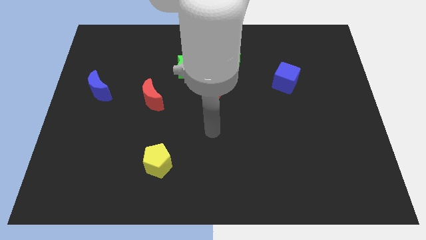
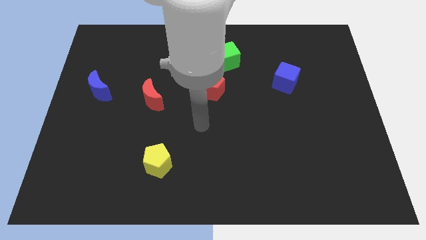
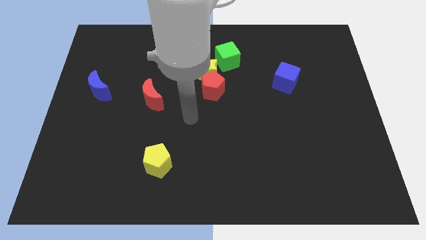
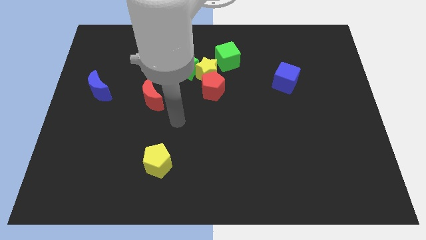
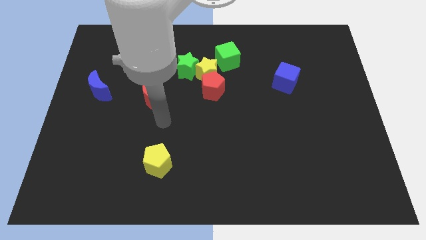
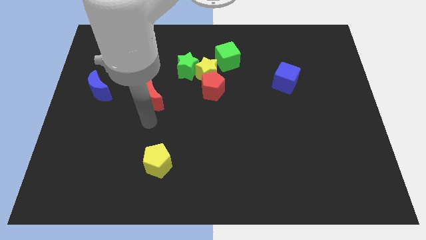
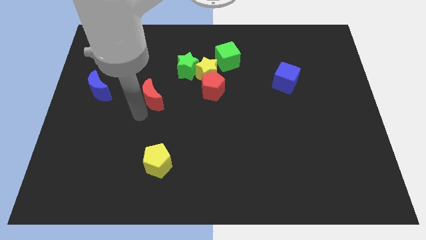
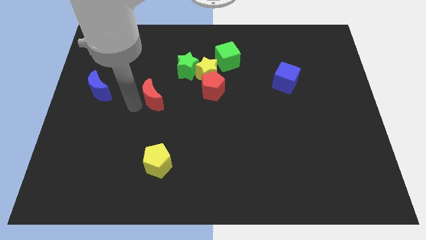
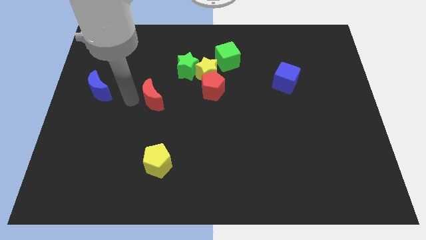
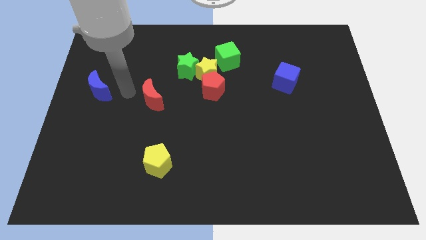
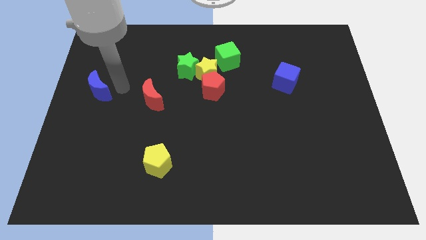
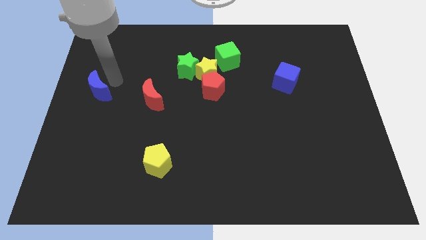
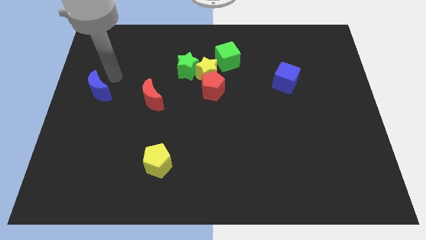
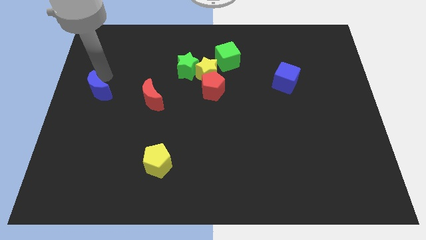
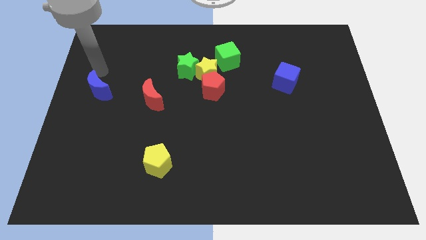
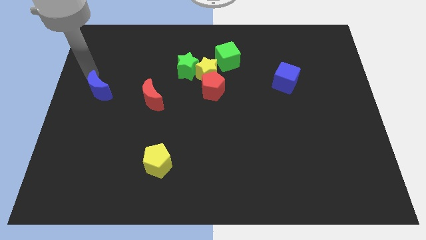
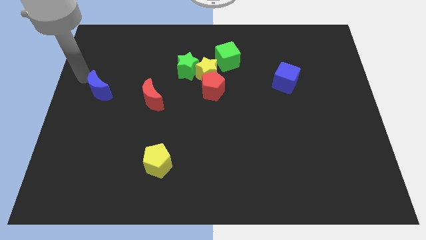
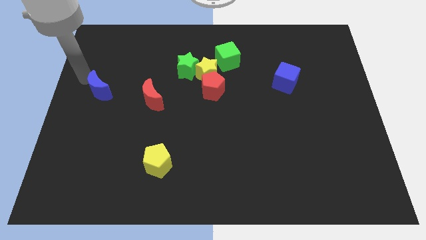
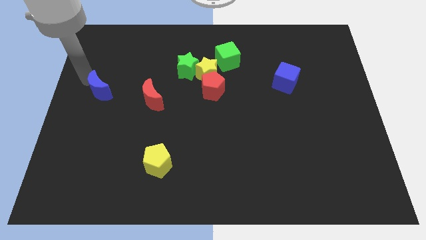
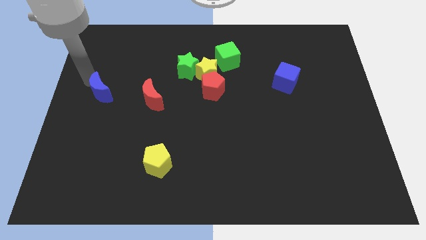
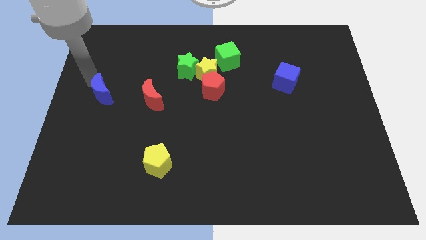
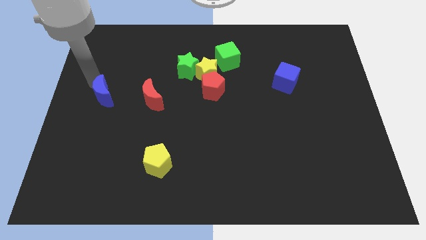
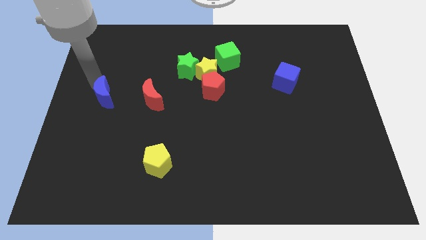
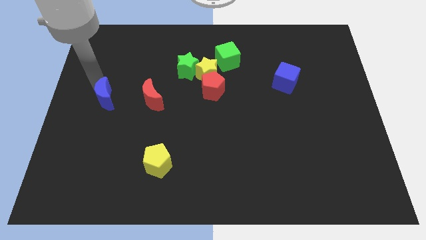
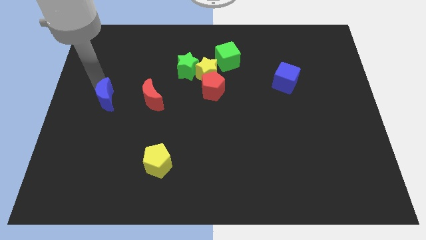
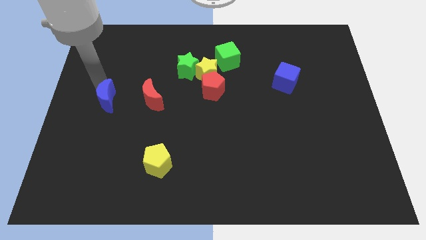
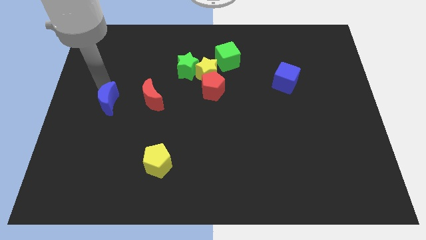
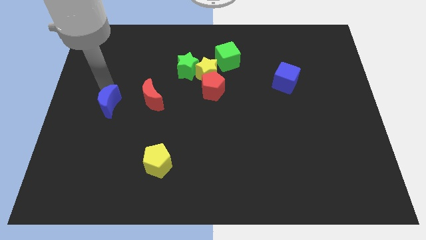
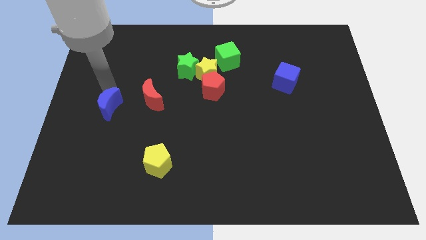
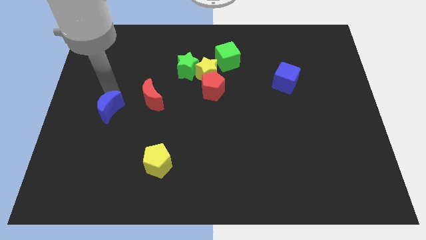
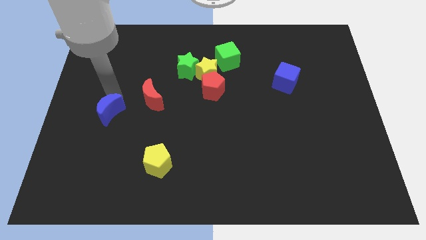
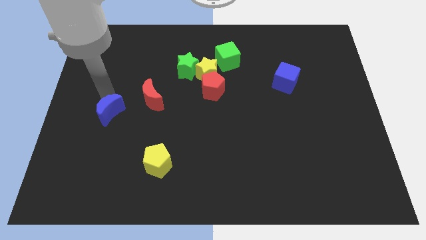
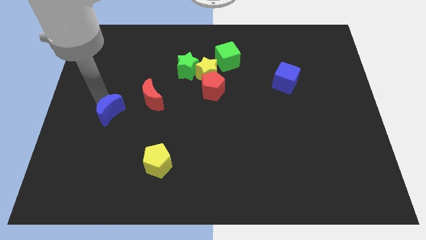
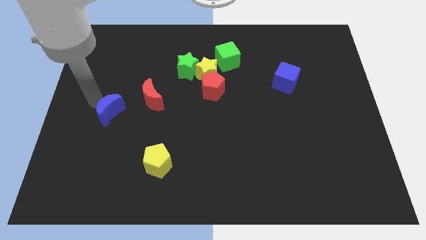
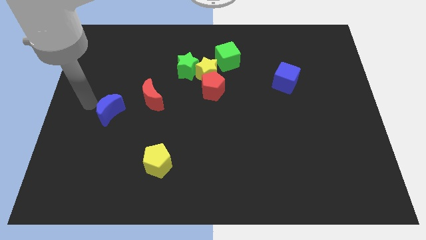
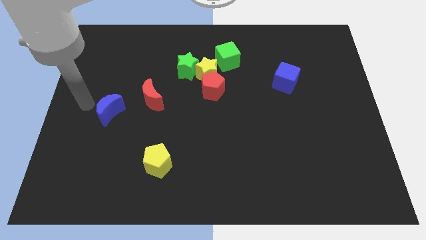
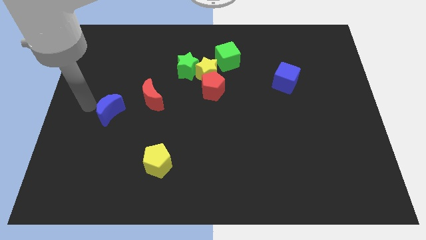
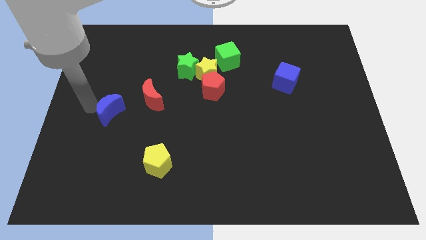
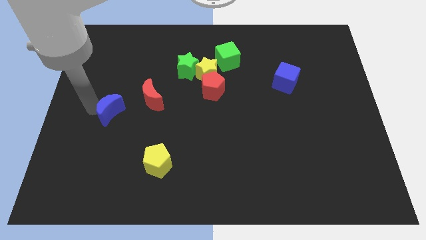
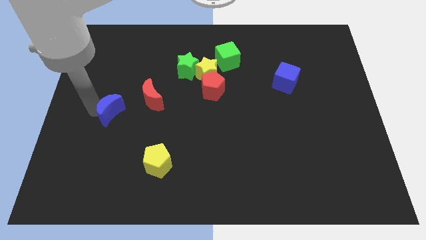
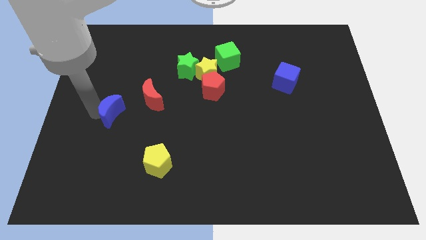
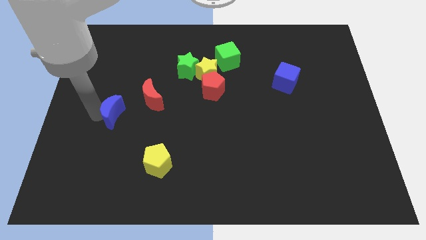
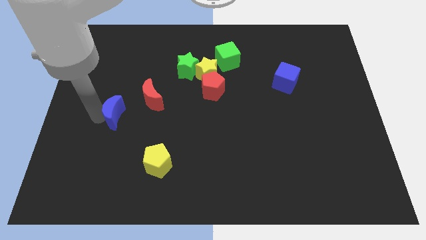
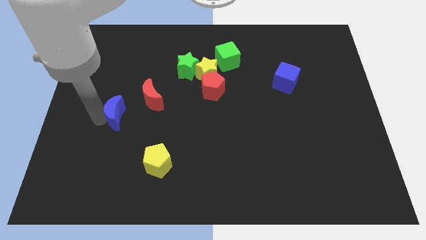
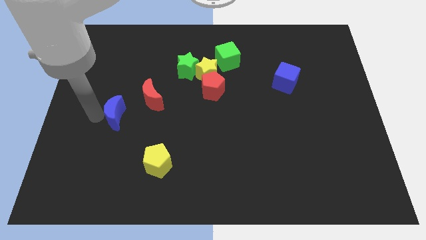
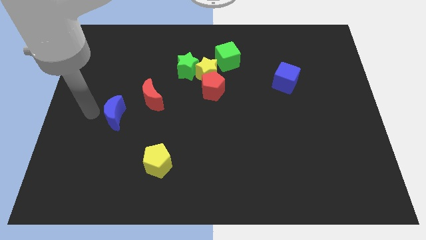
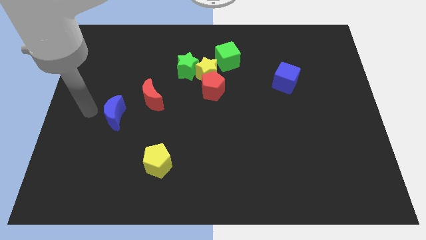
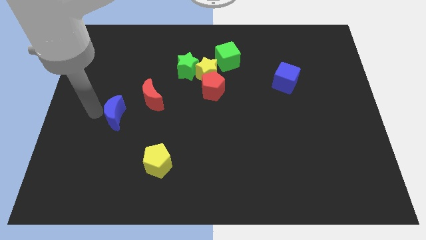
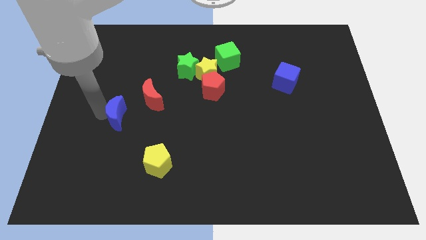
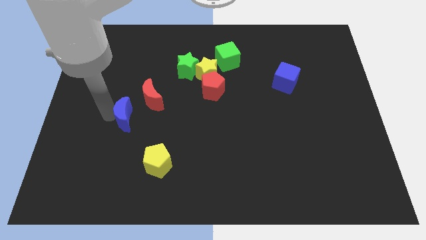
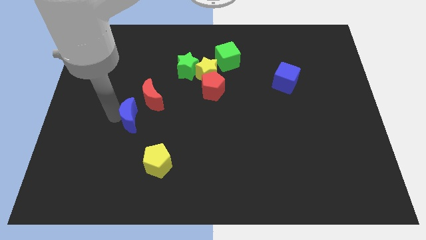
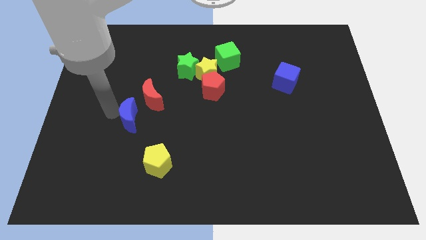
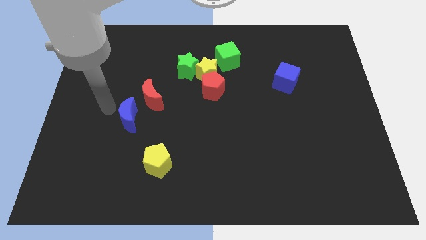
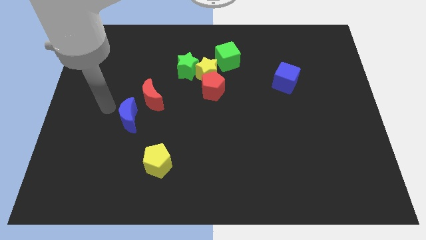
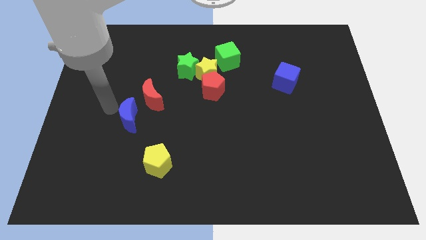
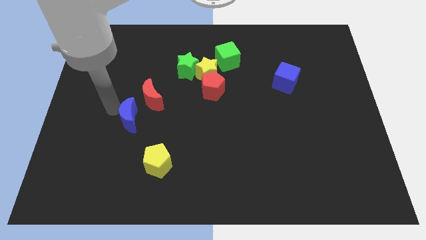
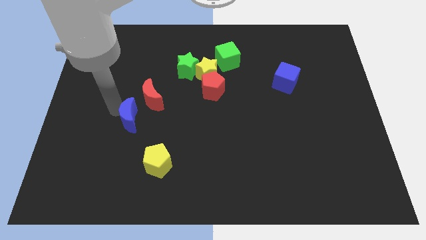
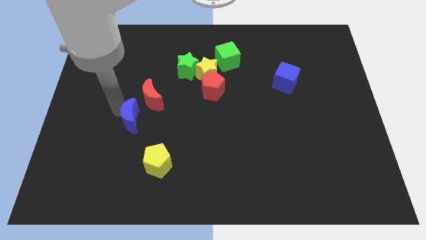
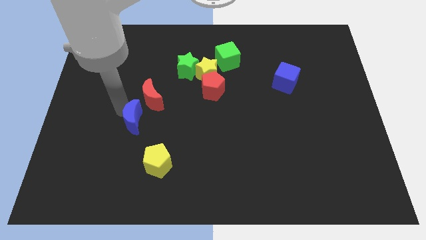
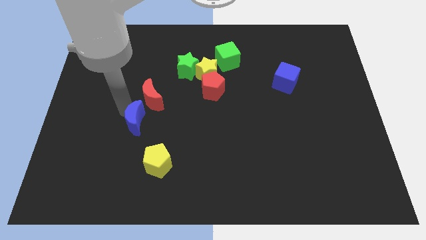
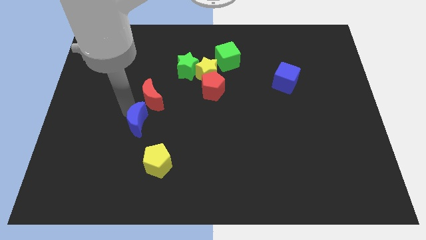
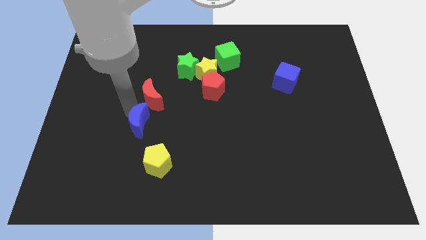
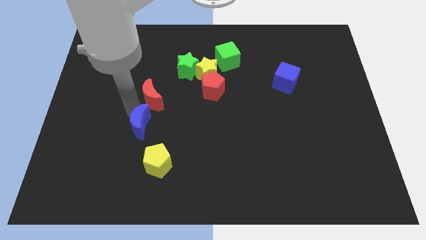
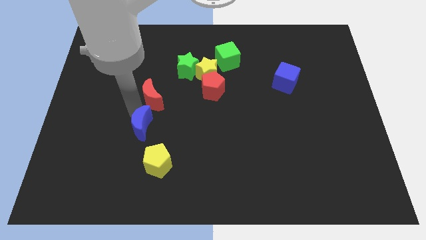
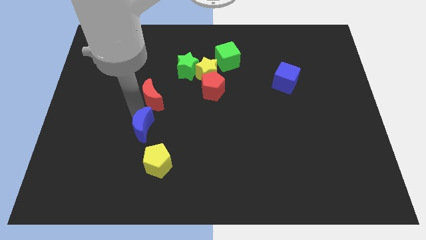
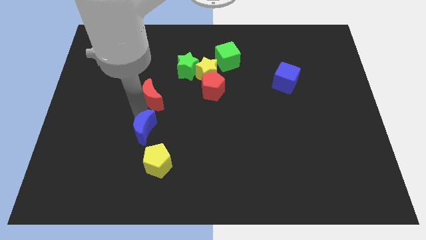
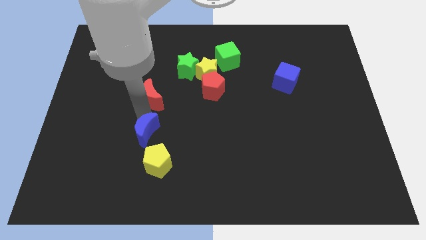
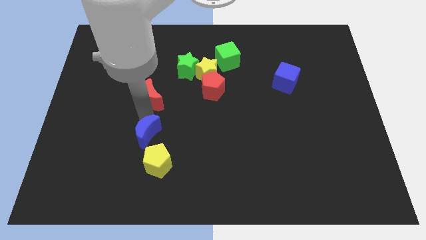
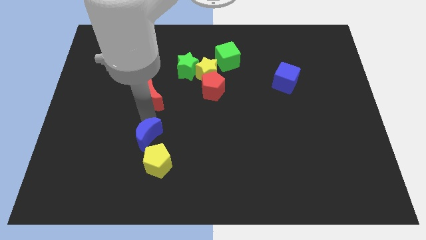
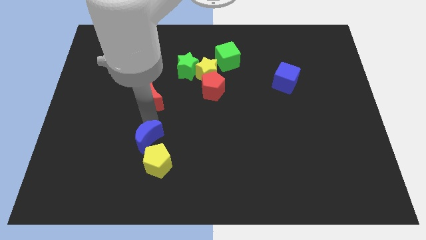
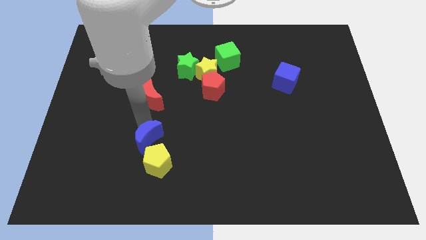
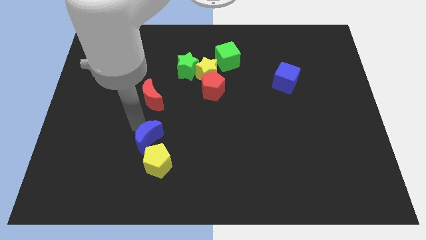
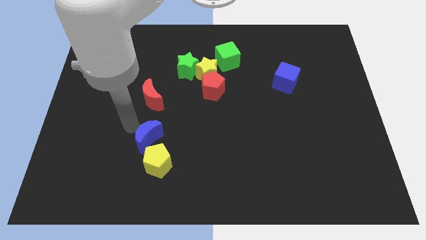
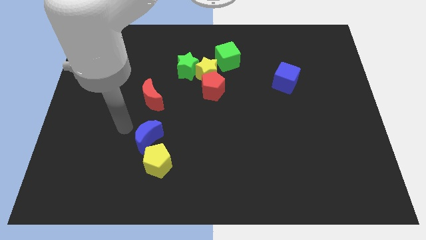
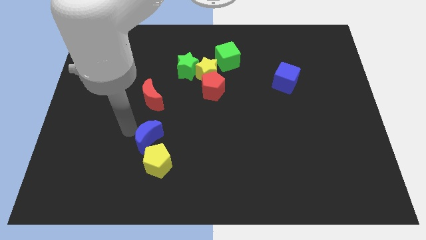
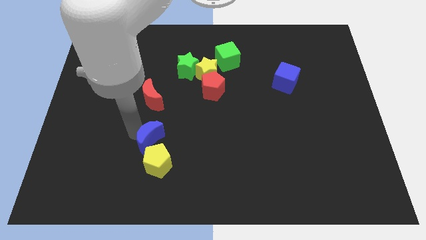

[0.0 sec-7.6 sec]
move the blue moon down and then to the right

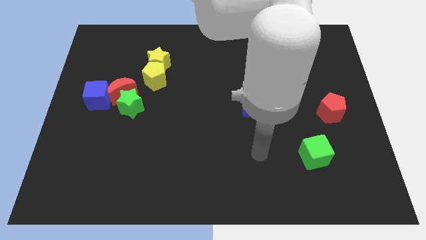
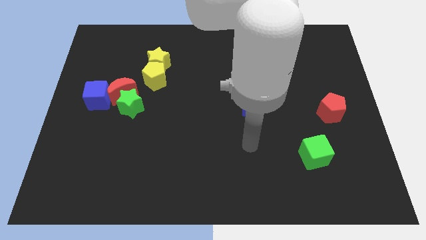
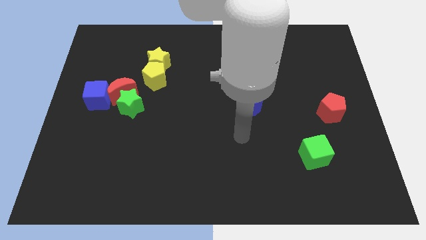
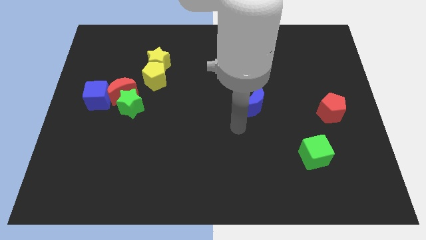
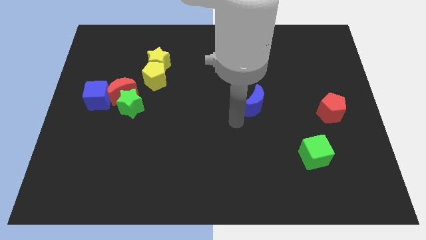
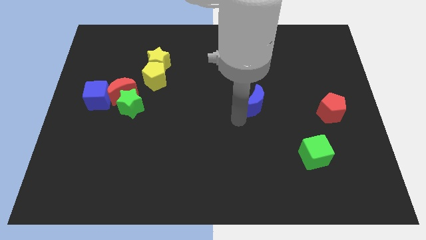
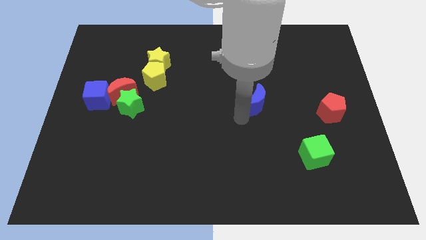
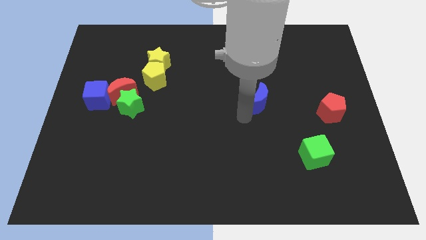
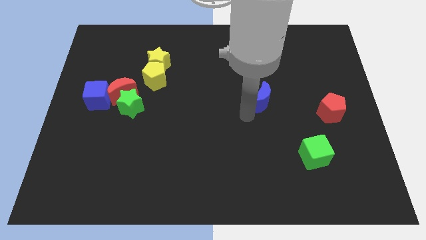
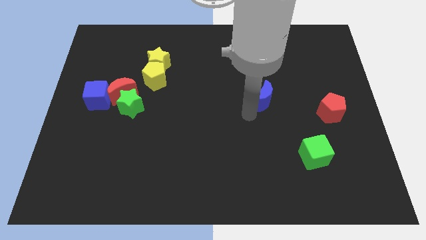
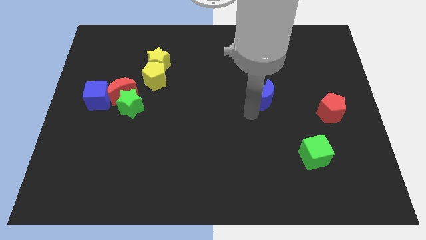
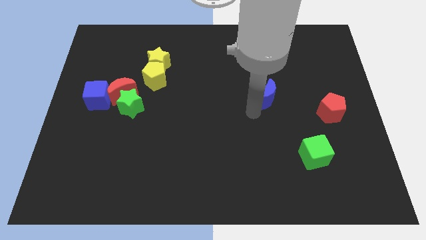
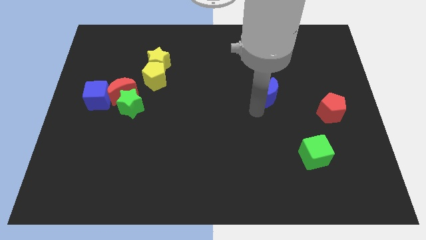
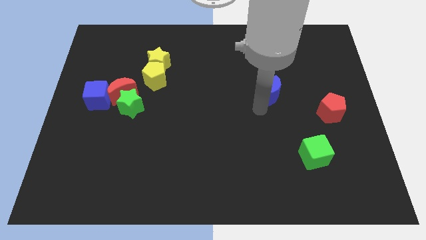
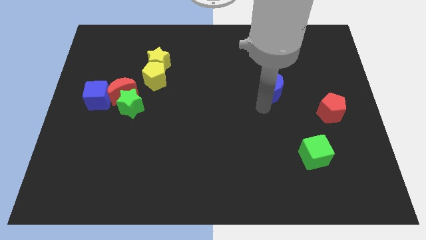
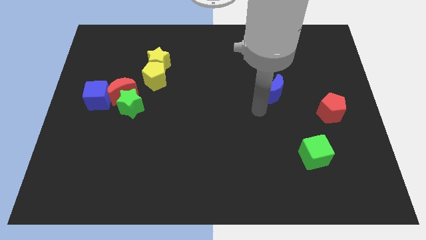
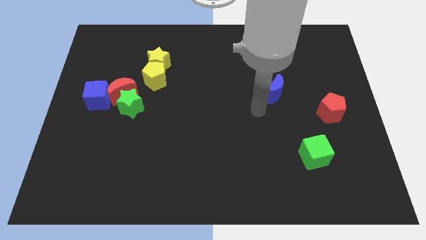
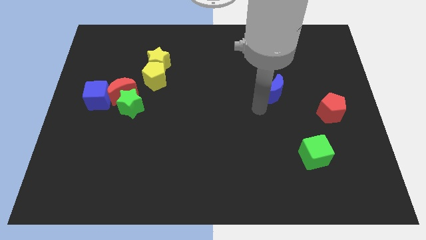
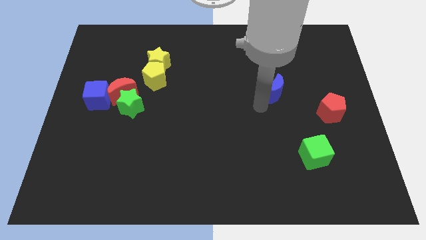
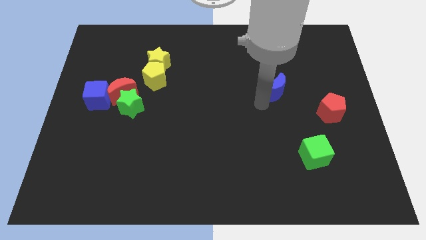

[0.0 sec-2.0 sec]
slightly slide the blue moon diagonally up and right
